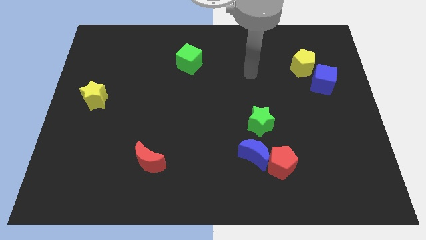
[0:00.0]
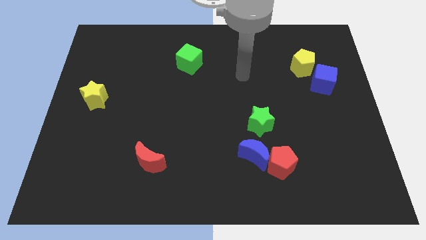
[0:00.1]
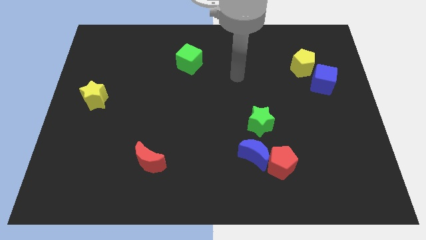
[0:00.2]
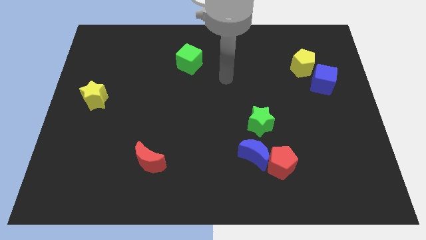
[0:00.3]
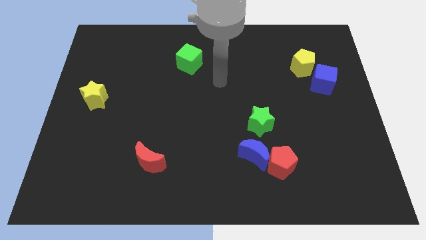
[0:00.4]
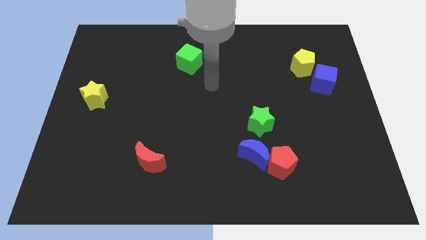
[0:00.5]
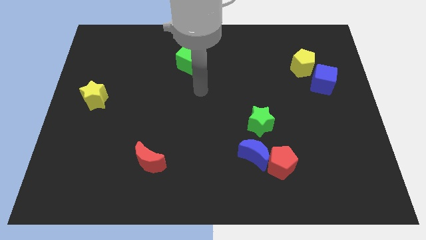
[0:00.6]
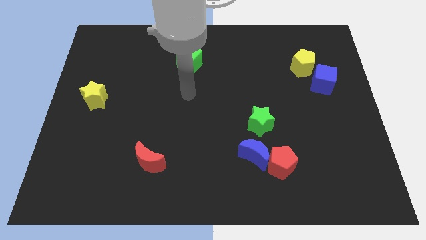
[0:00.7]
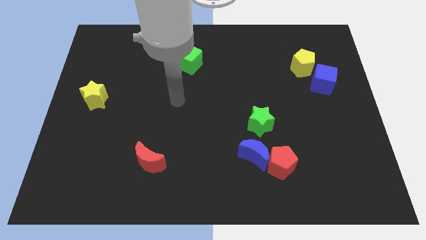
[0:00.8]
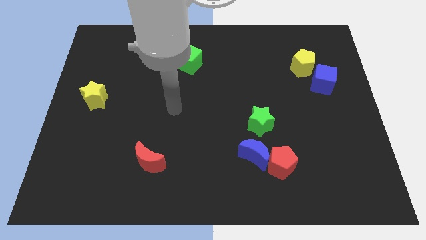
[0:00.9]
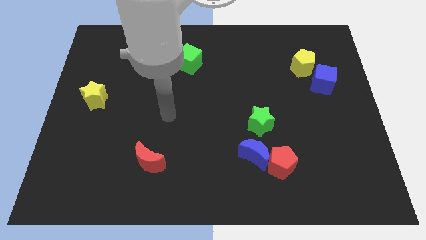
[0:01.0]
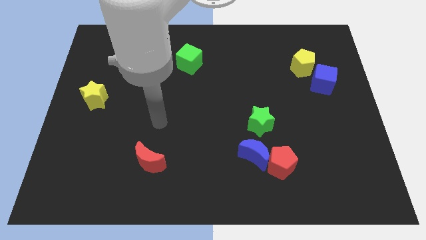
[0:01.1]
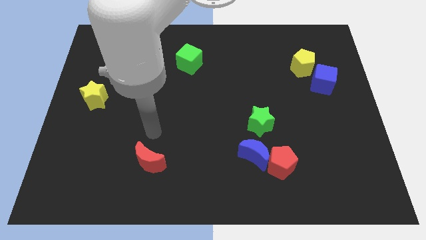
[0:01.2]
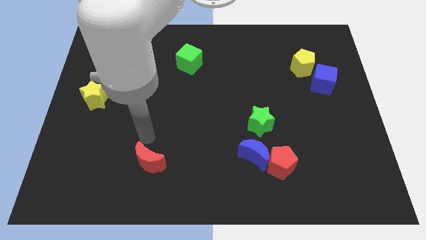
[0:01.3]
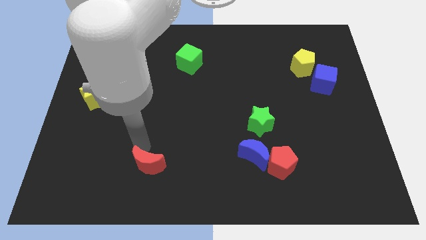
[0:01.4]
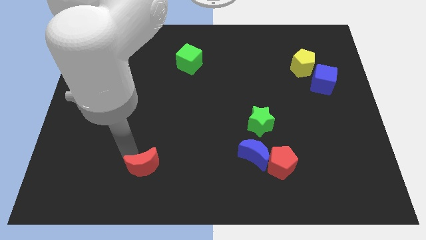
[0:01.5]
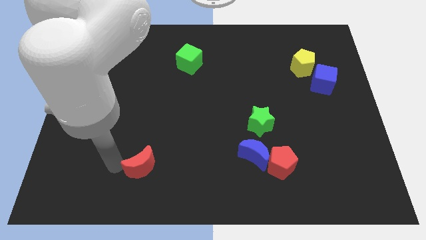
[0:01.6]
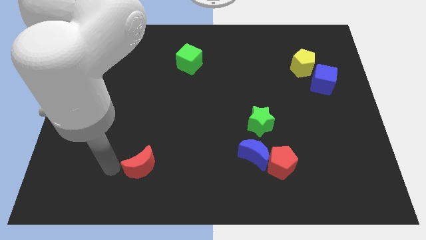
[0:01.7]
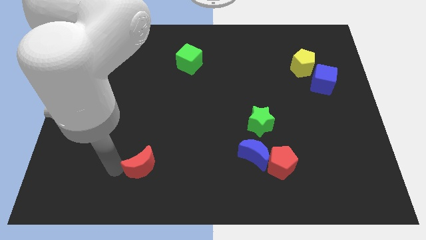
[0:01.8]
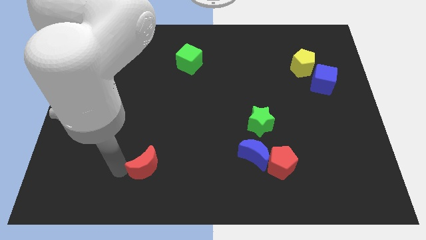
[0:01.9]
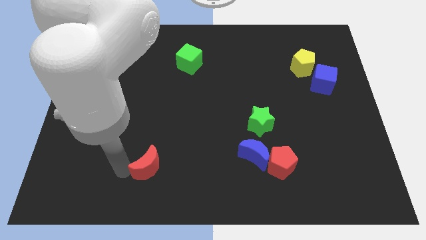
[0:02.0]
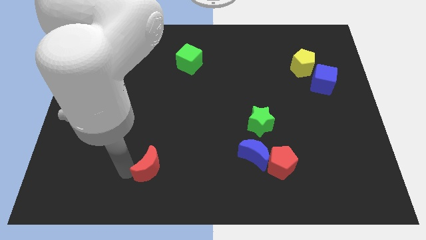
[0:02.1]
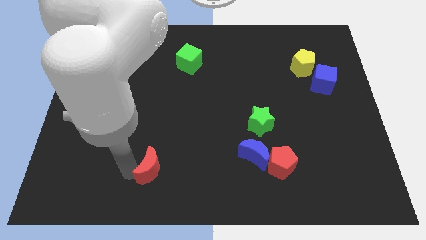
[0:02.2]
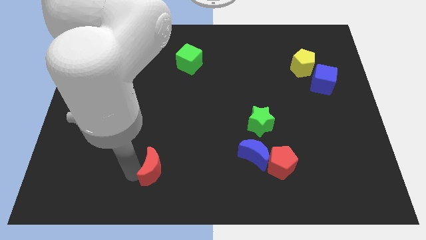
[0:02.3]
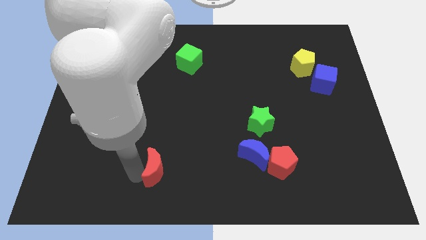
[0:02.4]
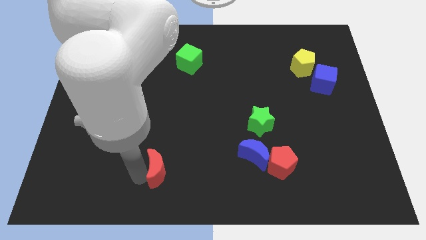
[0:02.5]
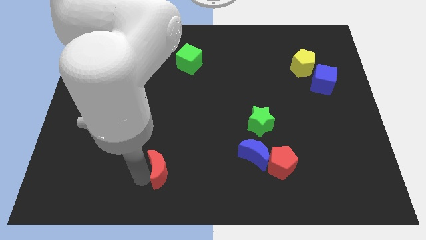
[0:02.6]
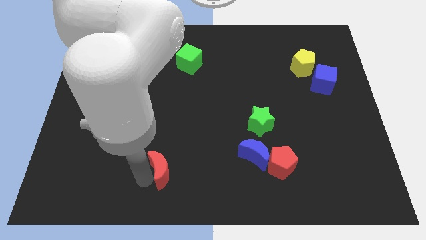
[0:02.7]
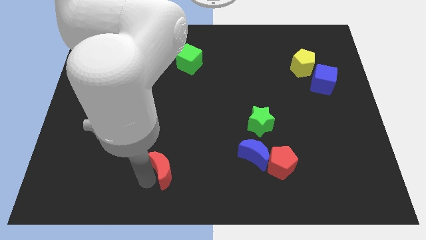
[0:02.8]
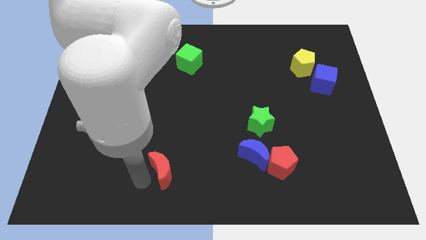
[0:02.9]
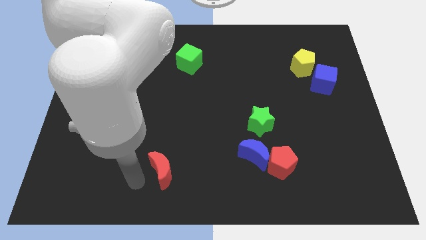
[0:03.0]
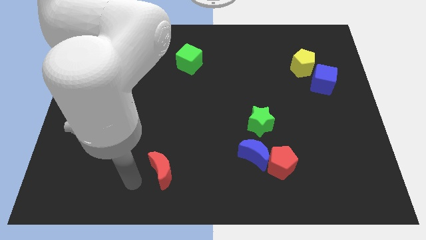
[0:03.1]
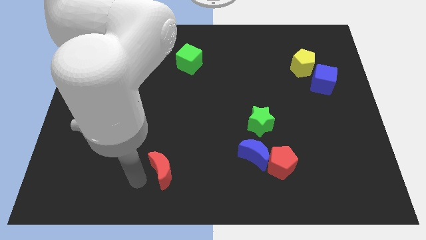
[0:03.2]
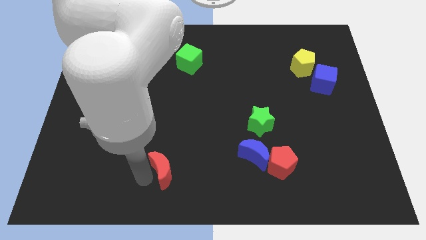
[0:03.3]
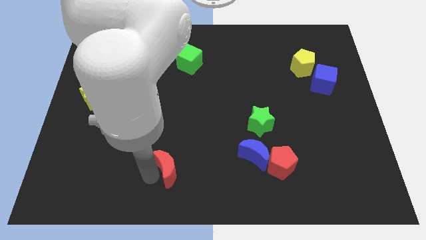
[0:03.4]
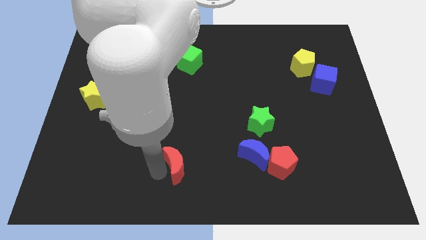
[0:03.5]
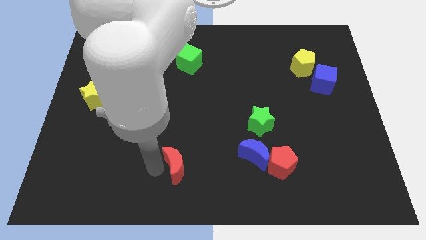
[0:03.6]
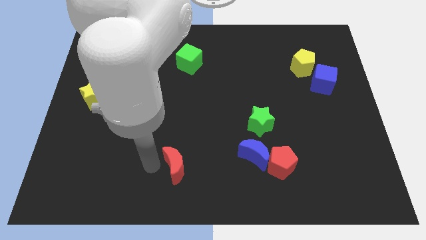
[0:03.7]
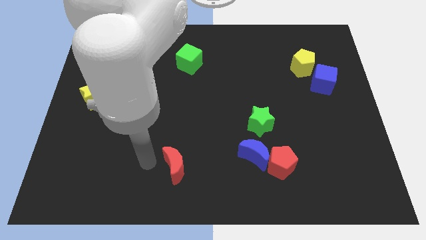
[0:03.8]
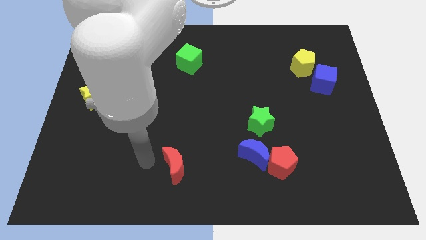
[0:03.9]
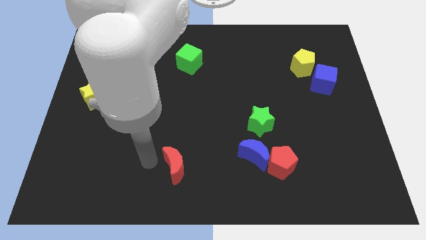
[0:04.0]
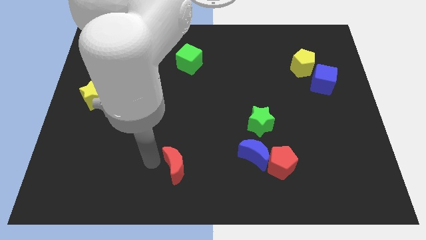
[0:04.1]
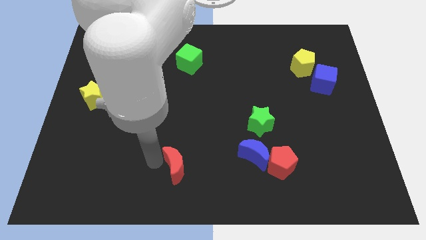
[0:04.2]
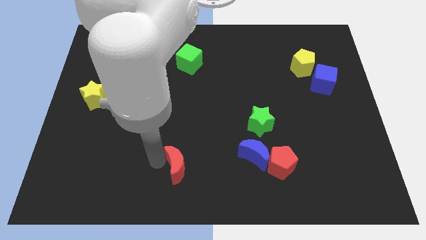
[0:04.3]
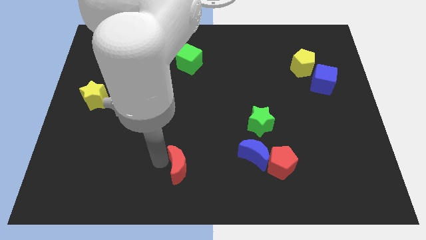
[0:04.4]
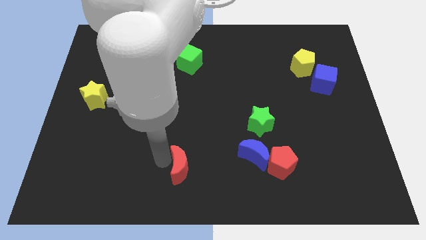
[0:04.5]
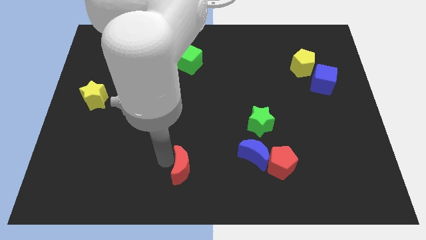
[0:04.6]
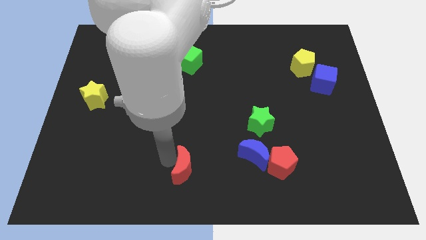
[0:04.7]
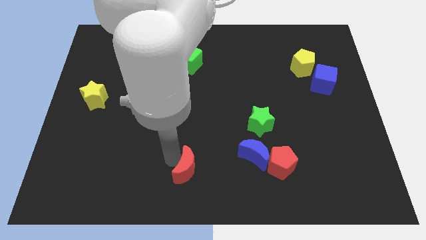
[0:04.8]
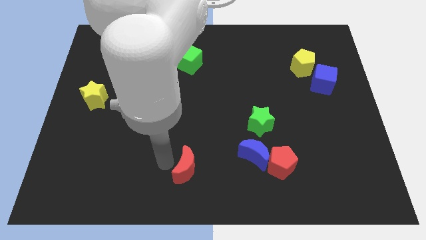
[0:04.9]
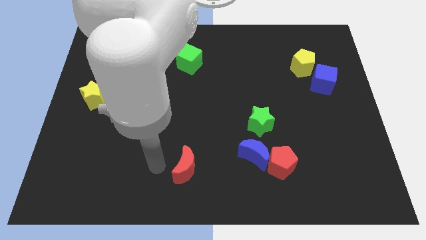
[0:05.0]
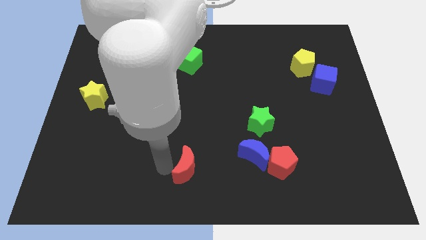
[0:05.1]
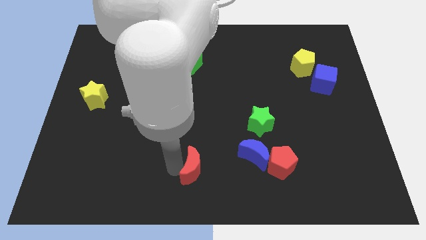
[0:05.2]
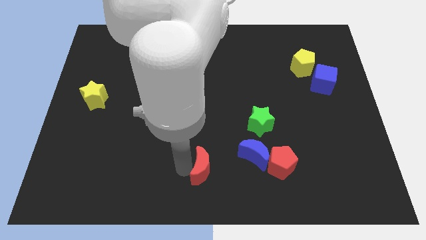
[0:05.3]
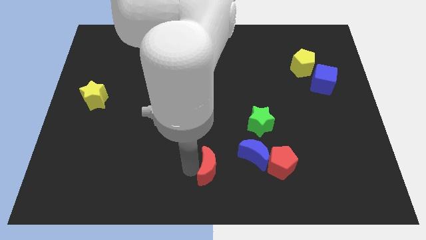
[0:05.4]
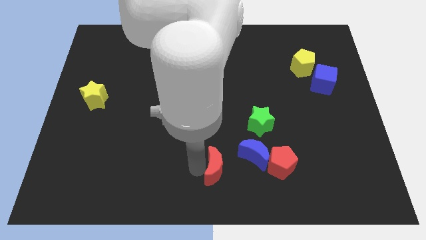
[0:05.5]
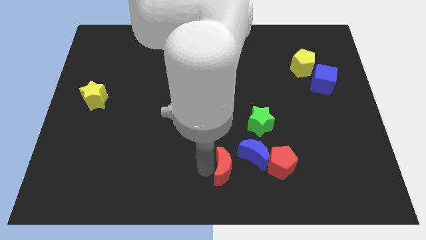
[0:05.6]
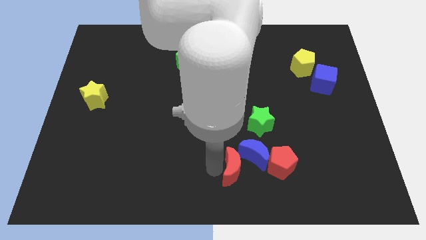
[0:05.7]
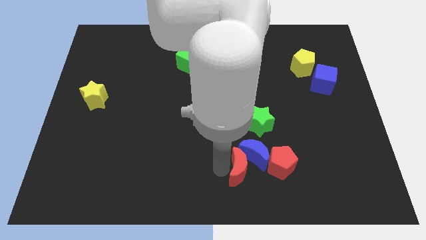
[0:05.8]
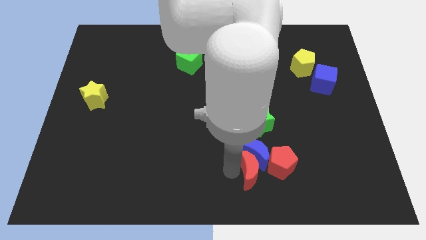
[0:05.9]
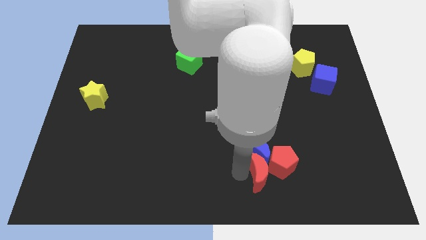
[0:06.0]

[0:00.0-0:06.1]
move the red moon to the red pentagon

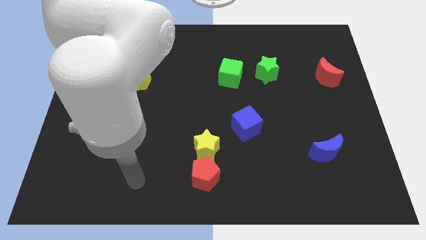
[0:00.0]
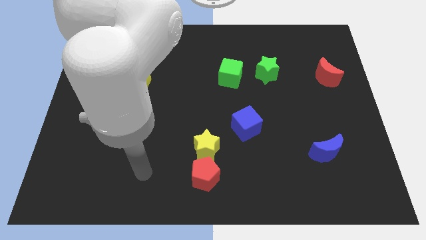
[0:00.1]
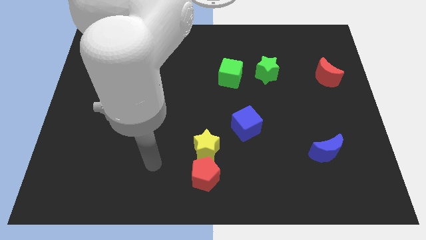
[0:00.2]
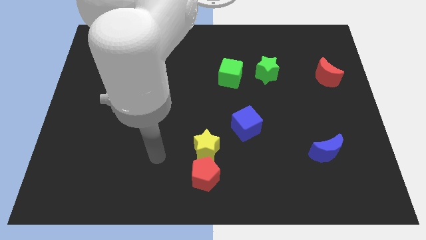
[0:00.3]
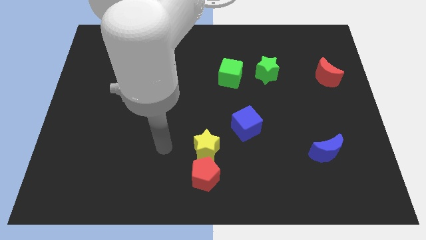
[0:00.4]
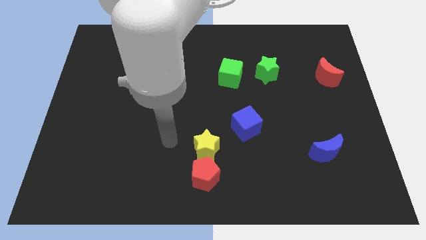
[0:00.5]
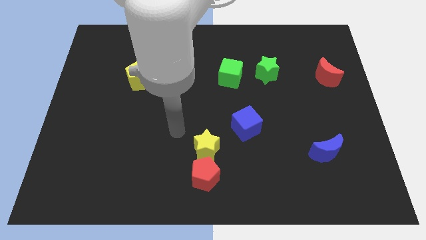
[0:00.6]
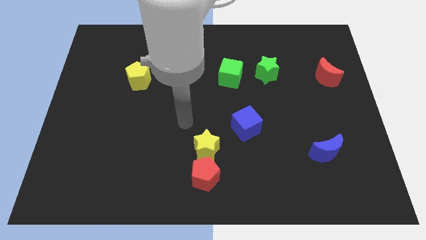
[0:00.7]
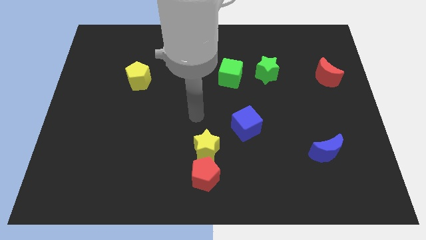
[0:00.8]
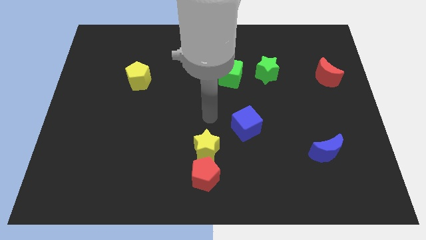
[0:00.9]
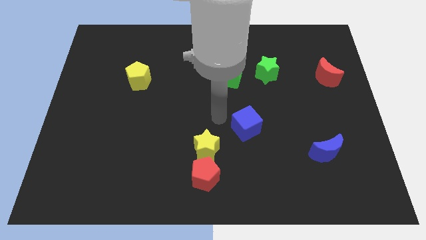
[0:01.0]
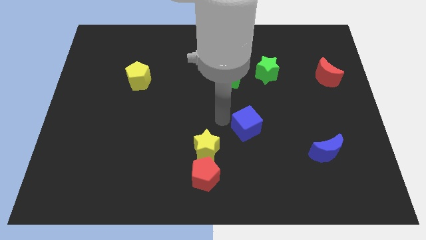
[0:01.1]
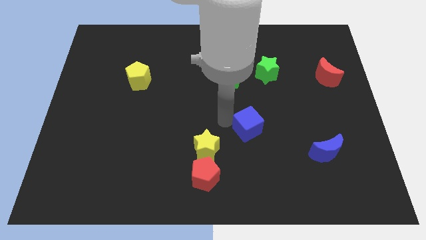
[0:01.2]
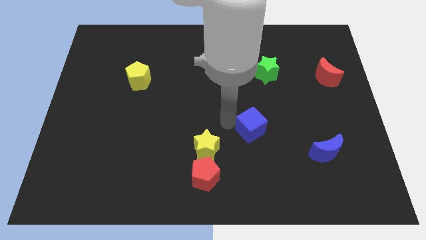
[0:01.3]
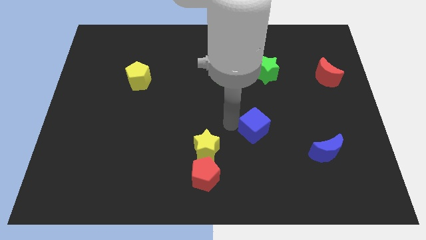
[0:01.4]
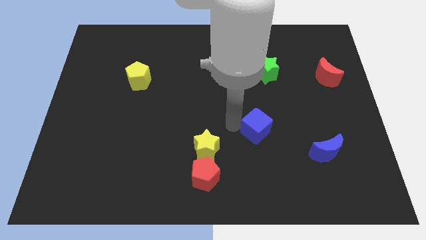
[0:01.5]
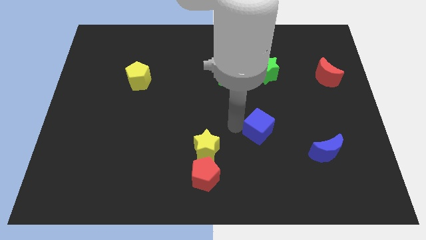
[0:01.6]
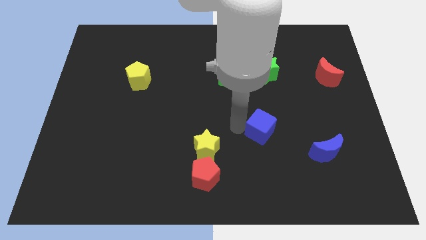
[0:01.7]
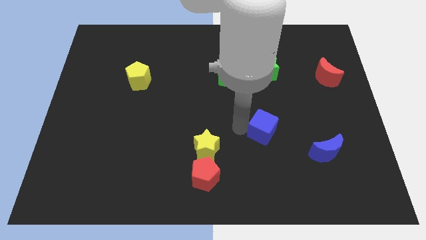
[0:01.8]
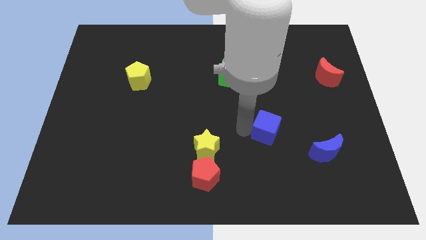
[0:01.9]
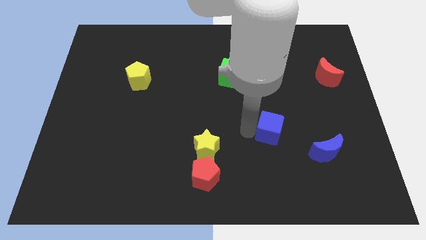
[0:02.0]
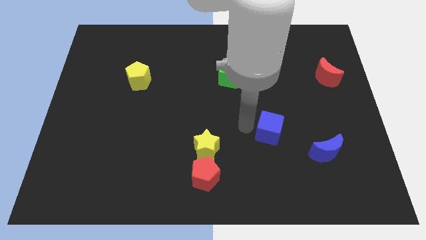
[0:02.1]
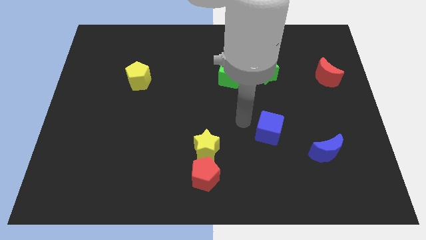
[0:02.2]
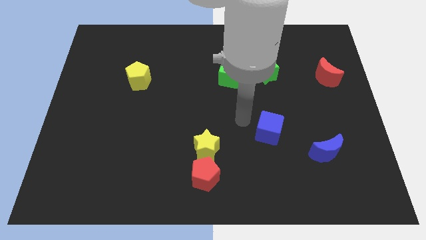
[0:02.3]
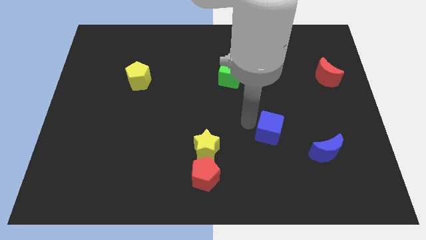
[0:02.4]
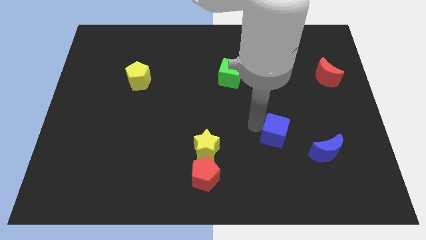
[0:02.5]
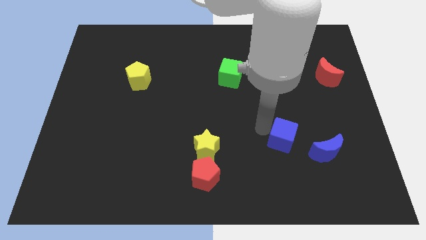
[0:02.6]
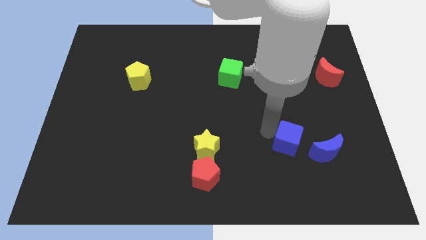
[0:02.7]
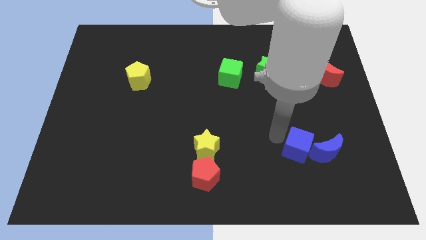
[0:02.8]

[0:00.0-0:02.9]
slide the blue cube towards the blue moon
